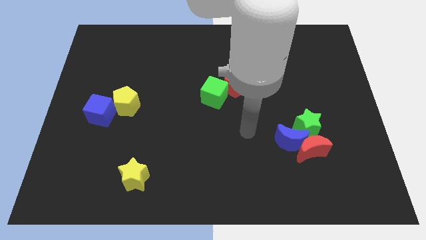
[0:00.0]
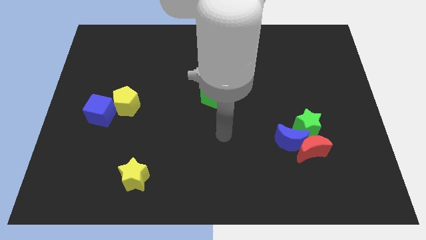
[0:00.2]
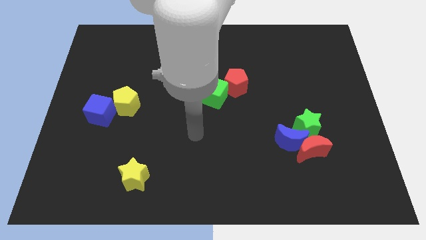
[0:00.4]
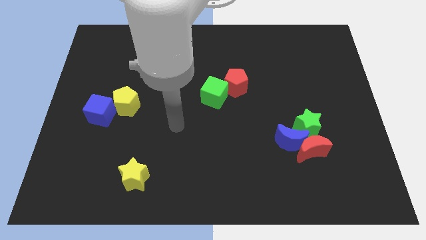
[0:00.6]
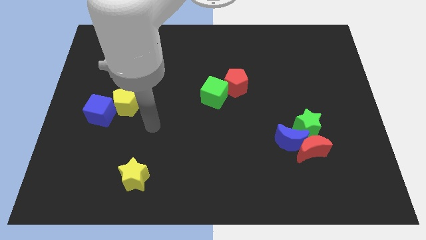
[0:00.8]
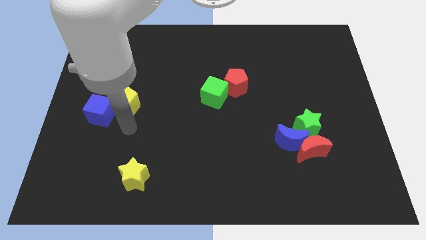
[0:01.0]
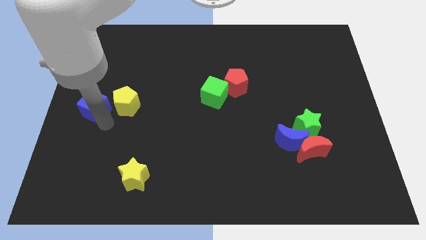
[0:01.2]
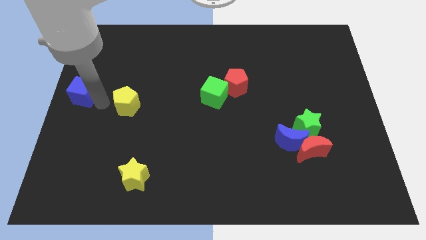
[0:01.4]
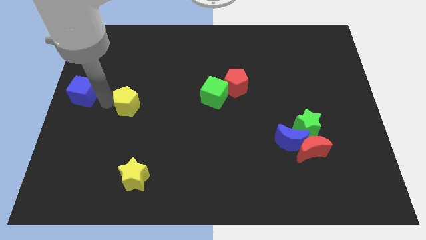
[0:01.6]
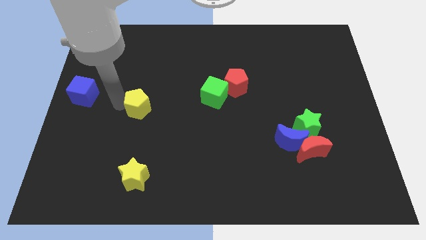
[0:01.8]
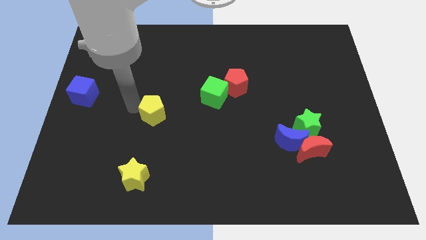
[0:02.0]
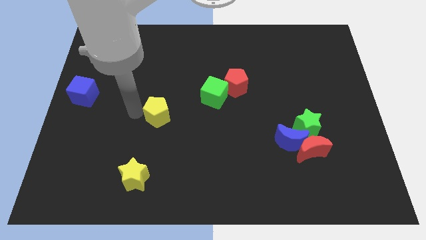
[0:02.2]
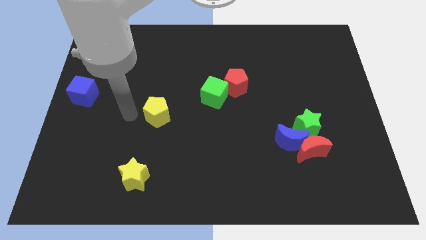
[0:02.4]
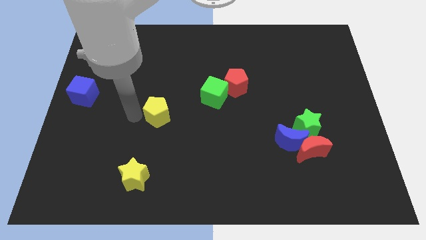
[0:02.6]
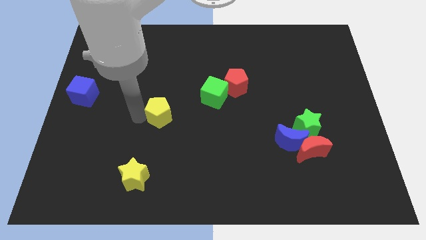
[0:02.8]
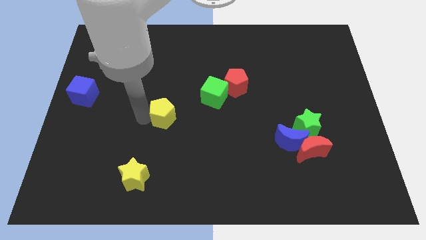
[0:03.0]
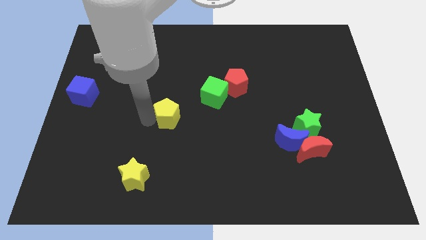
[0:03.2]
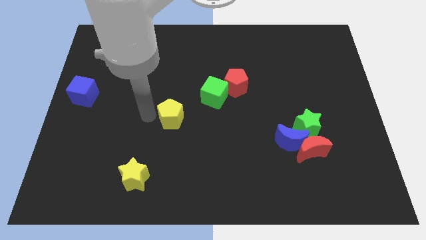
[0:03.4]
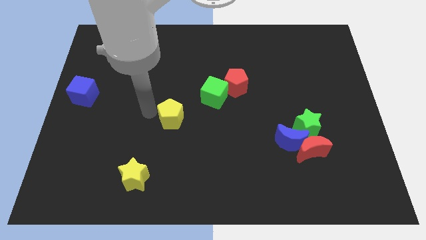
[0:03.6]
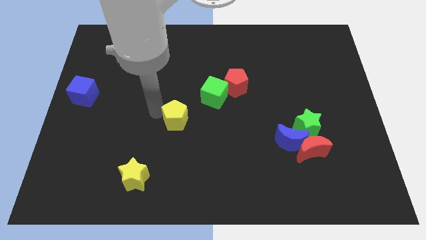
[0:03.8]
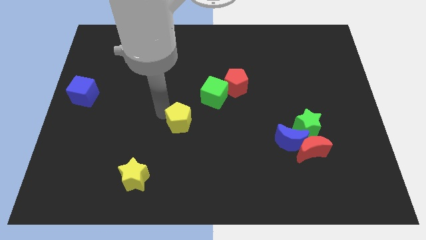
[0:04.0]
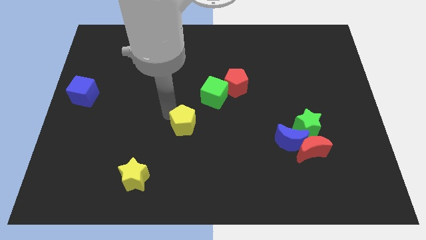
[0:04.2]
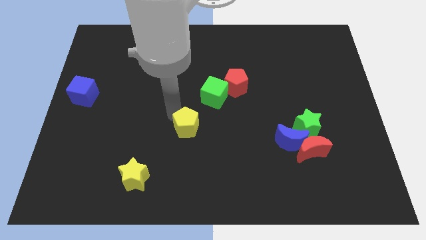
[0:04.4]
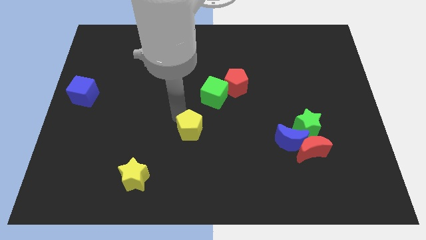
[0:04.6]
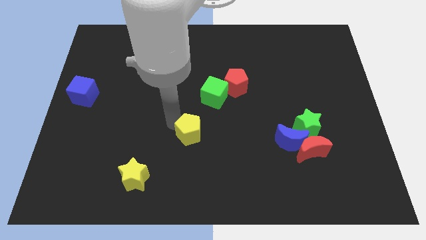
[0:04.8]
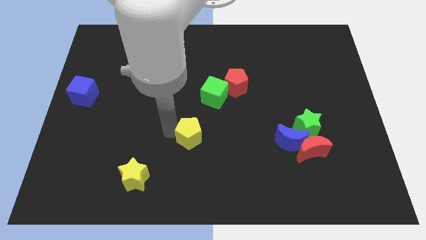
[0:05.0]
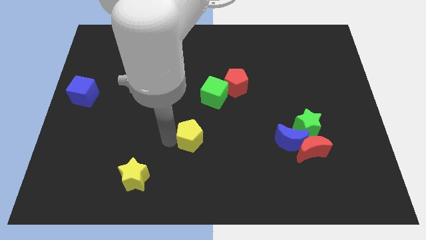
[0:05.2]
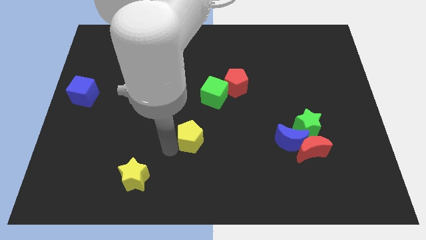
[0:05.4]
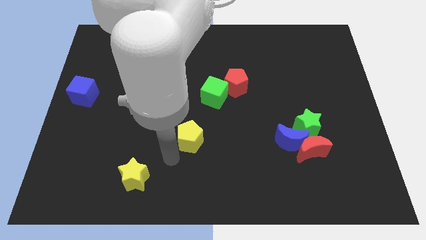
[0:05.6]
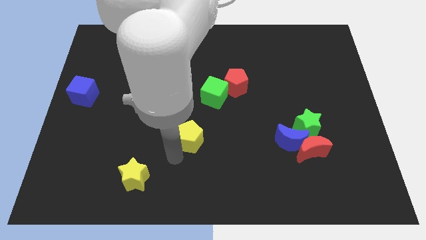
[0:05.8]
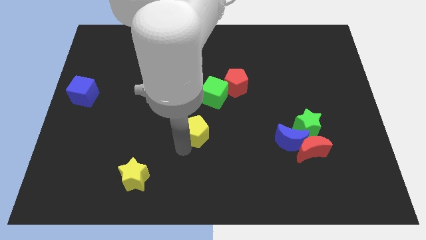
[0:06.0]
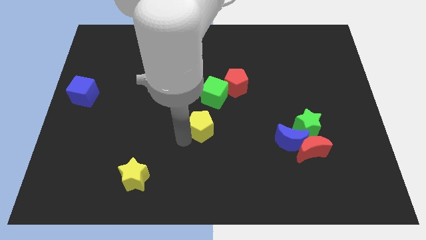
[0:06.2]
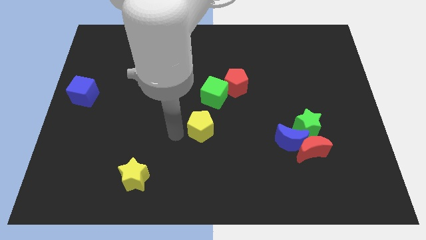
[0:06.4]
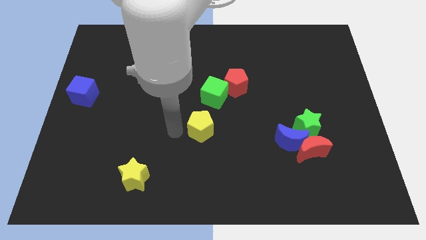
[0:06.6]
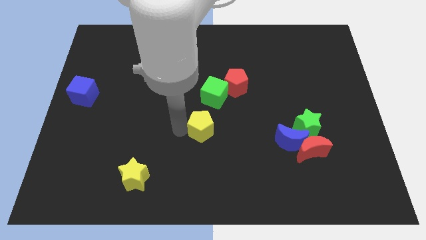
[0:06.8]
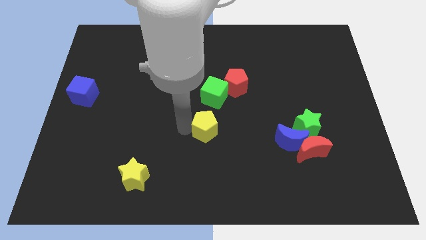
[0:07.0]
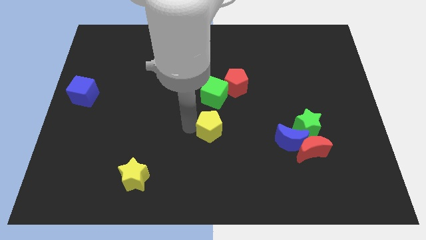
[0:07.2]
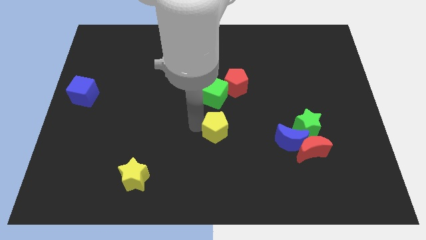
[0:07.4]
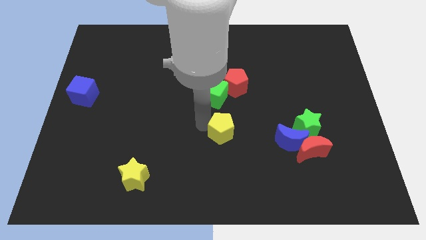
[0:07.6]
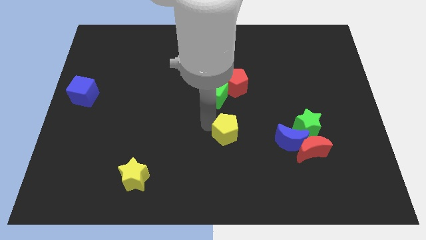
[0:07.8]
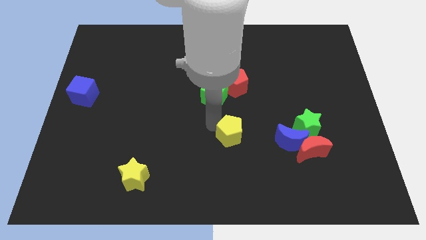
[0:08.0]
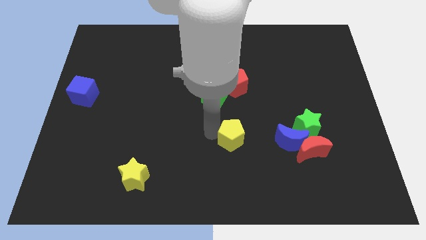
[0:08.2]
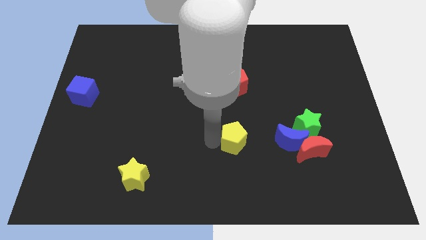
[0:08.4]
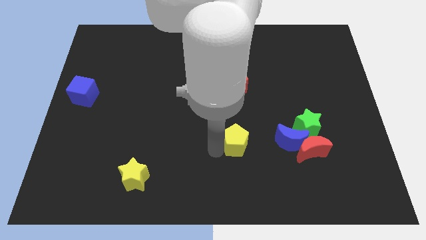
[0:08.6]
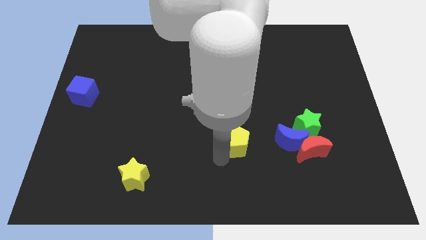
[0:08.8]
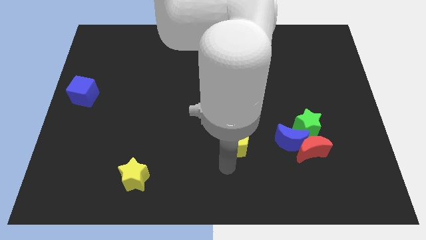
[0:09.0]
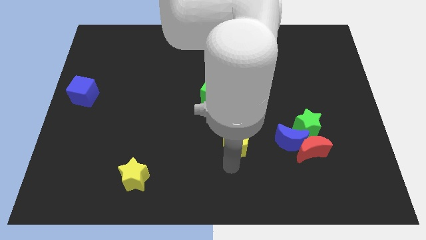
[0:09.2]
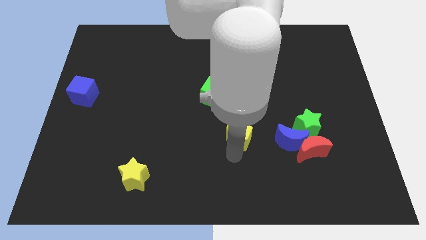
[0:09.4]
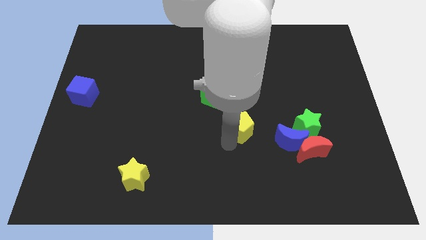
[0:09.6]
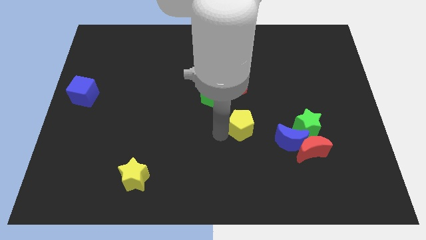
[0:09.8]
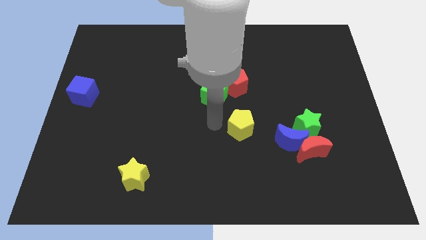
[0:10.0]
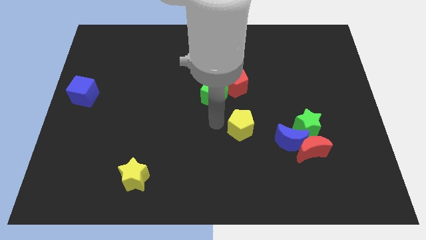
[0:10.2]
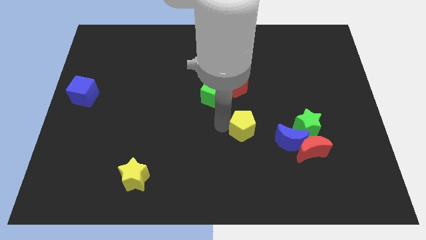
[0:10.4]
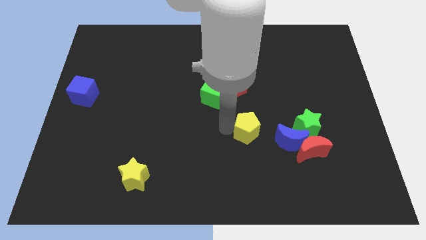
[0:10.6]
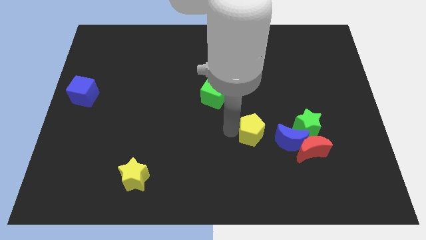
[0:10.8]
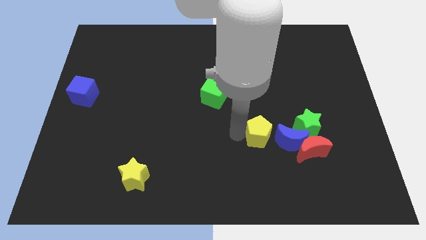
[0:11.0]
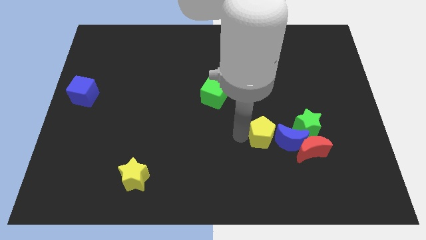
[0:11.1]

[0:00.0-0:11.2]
push the yellow pentagon close to the blue moon

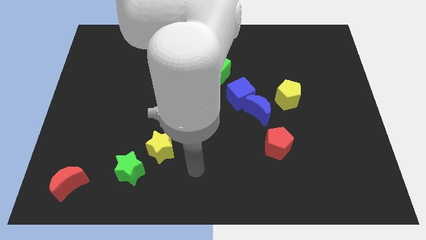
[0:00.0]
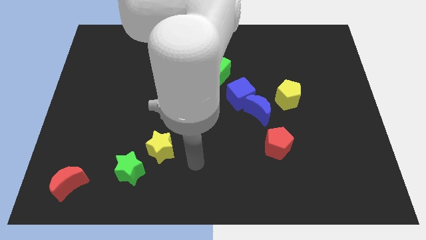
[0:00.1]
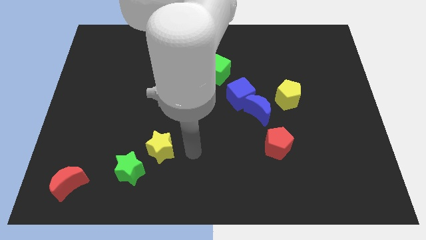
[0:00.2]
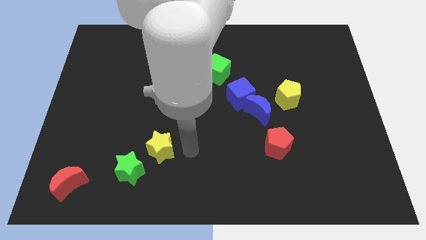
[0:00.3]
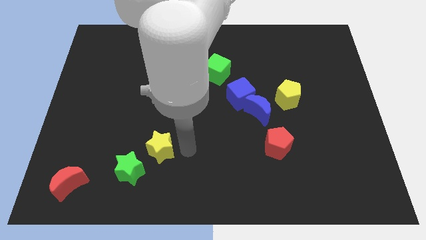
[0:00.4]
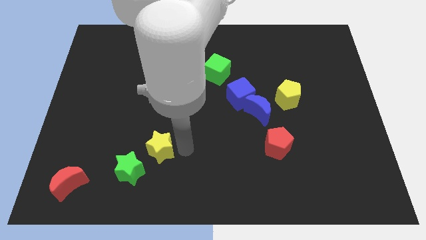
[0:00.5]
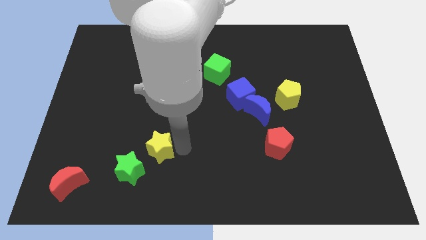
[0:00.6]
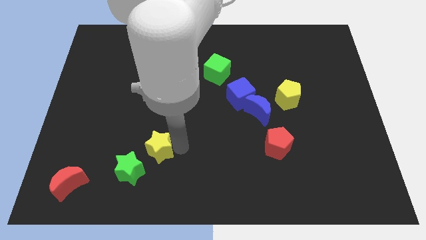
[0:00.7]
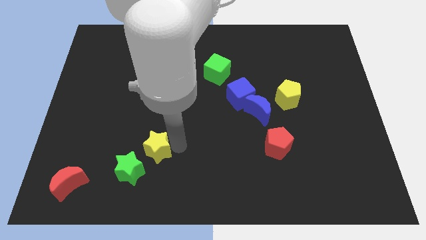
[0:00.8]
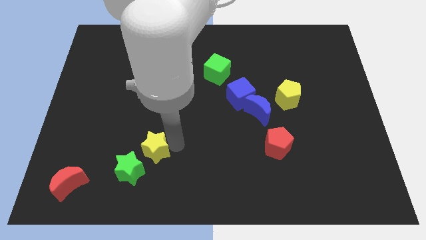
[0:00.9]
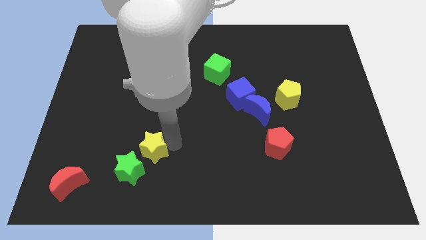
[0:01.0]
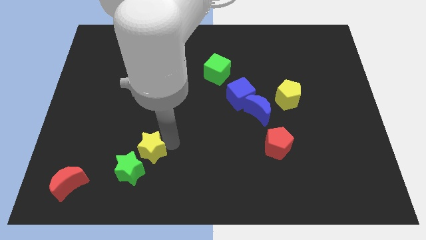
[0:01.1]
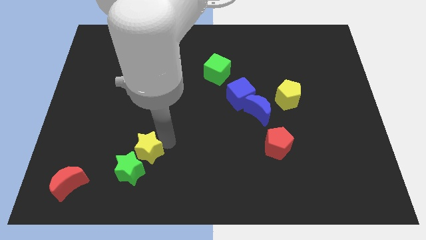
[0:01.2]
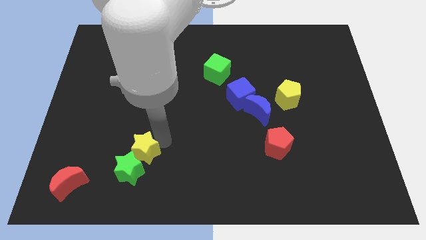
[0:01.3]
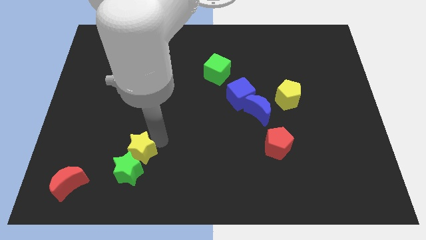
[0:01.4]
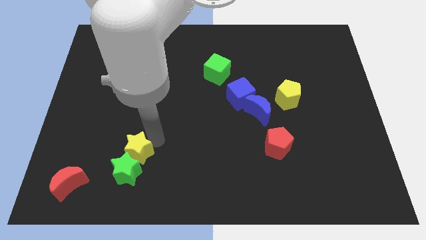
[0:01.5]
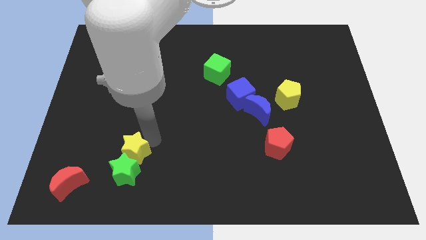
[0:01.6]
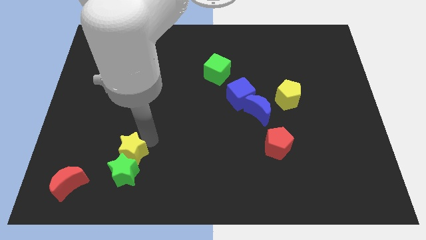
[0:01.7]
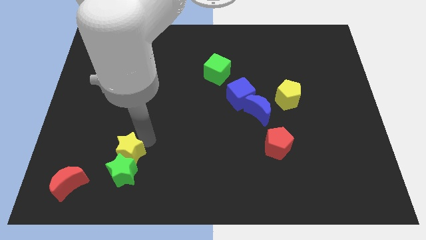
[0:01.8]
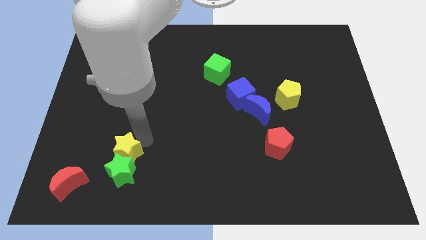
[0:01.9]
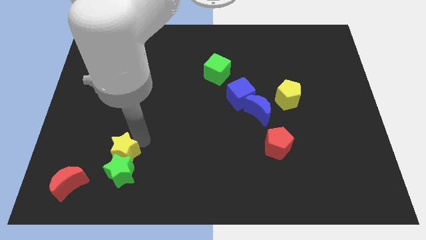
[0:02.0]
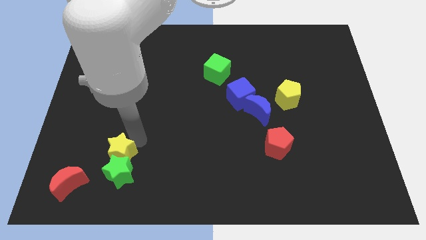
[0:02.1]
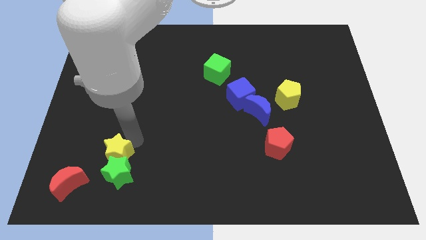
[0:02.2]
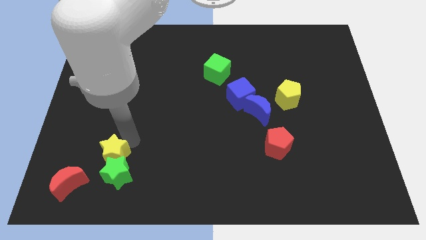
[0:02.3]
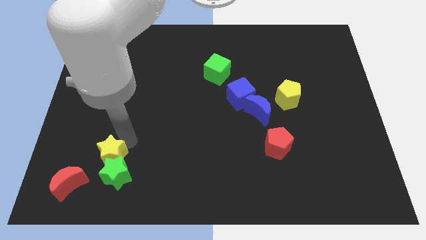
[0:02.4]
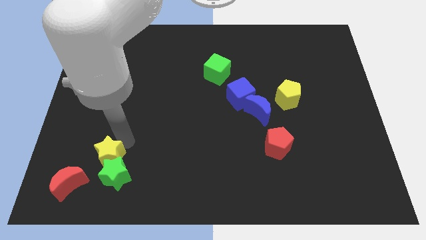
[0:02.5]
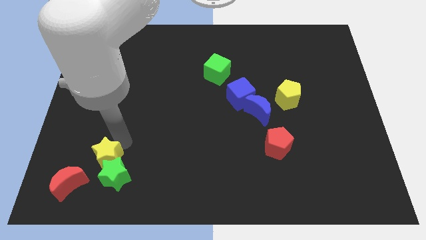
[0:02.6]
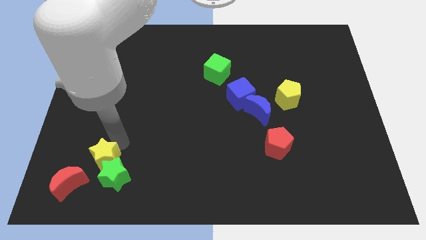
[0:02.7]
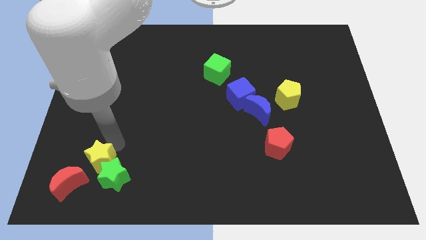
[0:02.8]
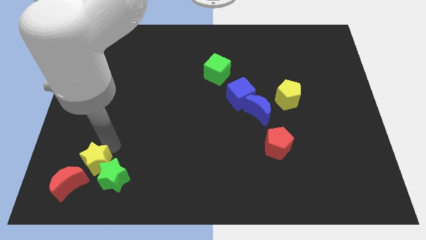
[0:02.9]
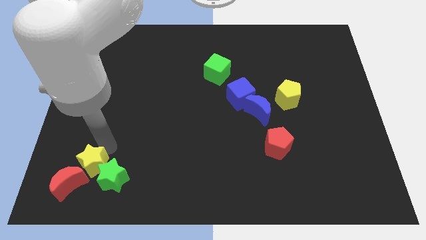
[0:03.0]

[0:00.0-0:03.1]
move the yellow star to the red moon
